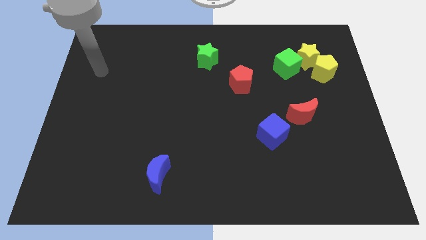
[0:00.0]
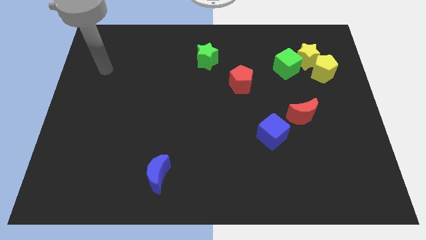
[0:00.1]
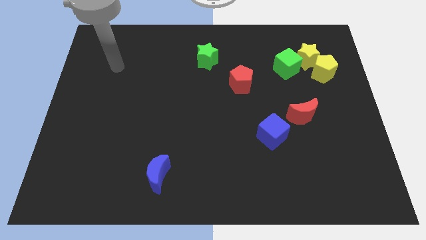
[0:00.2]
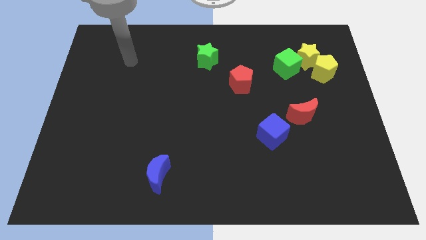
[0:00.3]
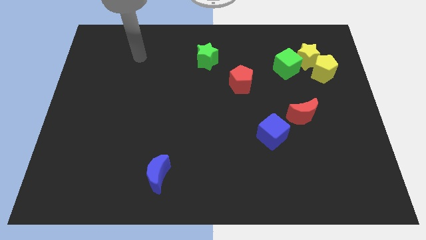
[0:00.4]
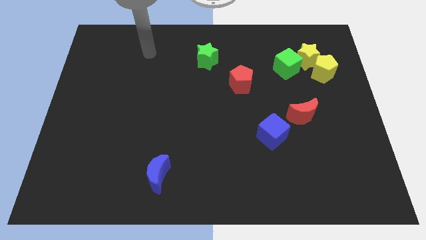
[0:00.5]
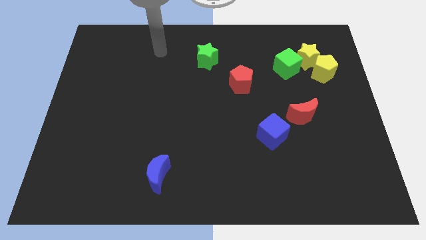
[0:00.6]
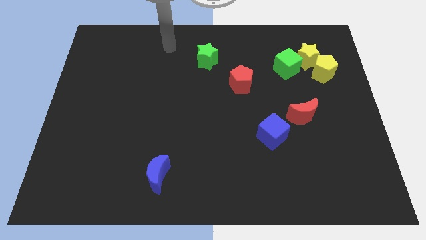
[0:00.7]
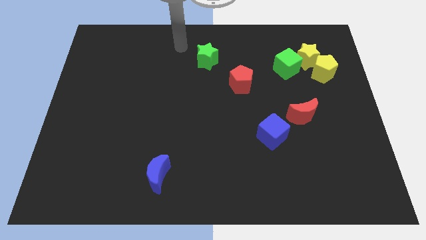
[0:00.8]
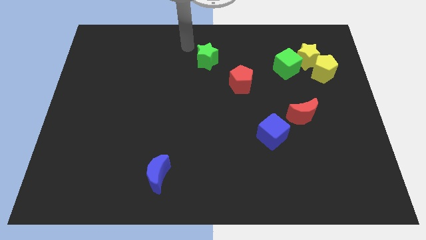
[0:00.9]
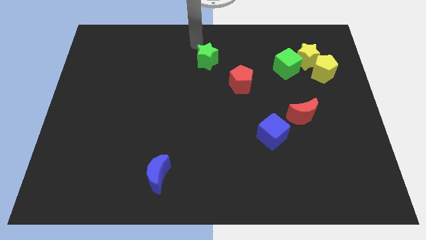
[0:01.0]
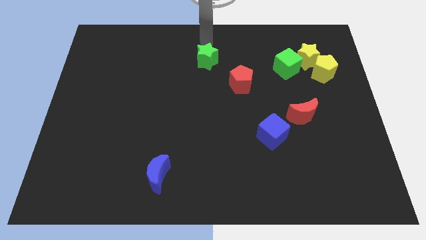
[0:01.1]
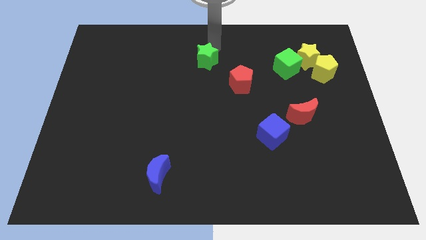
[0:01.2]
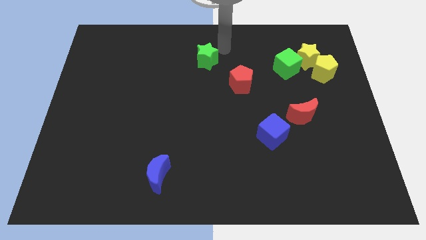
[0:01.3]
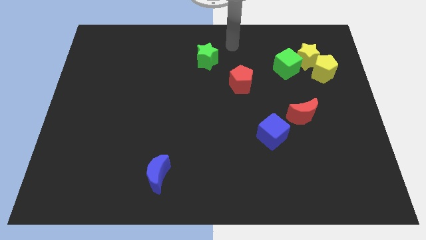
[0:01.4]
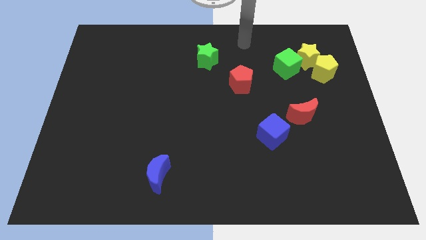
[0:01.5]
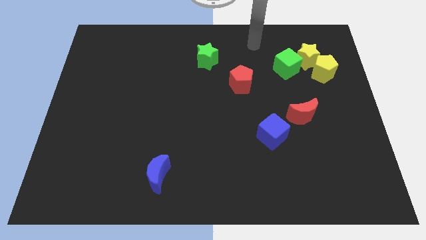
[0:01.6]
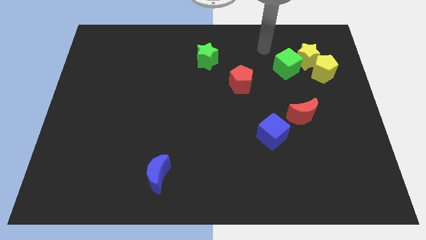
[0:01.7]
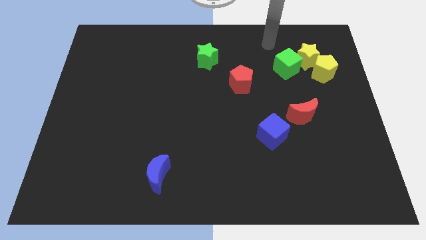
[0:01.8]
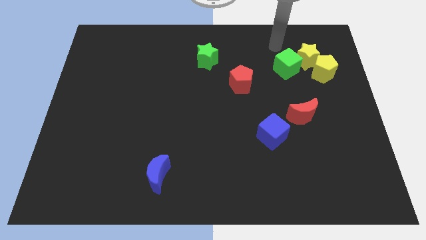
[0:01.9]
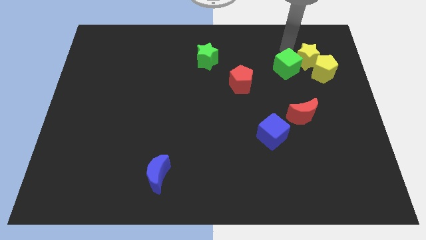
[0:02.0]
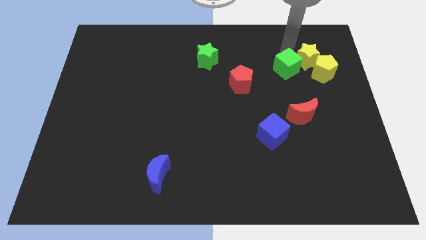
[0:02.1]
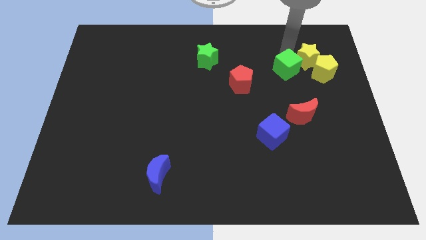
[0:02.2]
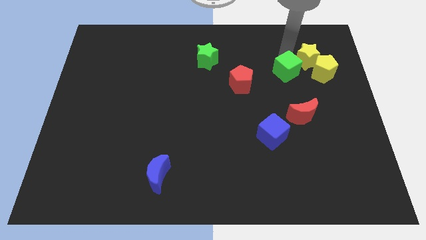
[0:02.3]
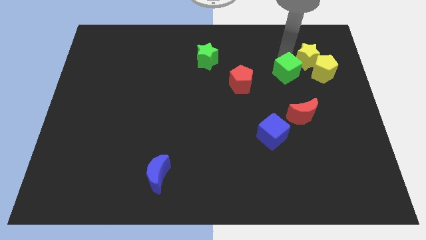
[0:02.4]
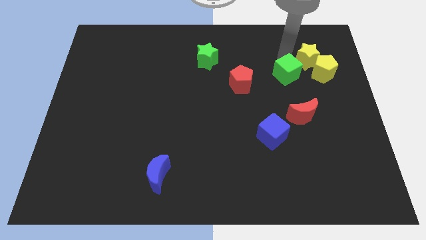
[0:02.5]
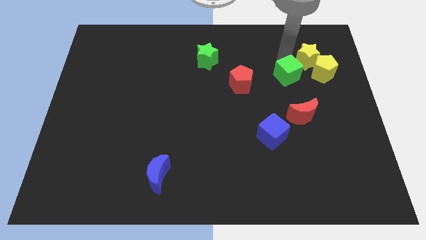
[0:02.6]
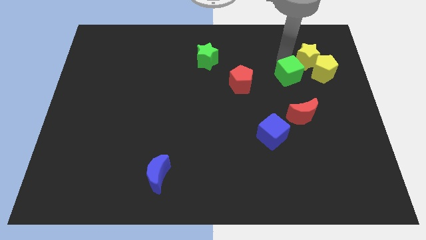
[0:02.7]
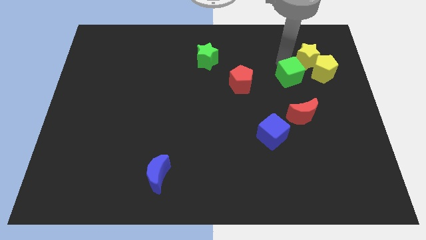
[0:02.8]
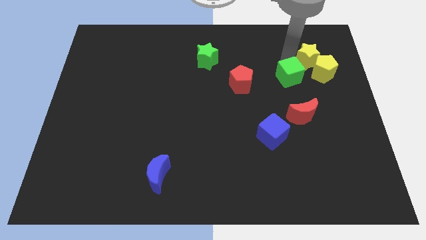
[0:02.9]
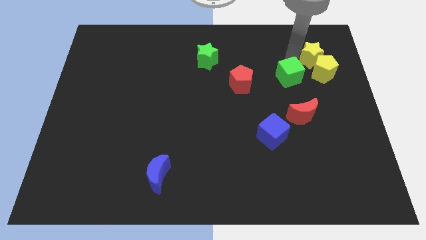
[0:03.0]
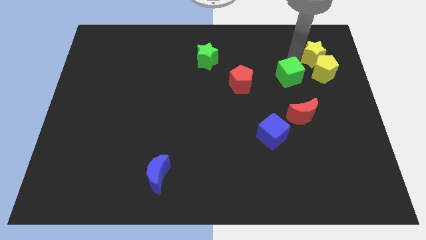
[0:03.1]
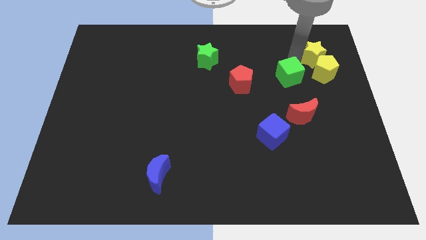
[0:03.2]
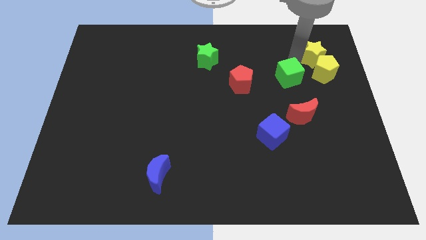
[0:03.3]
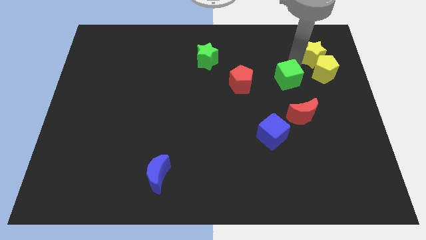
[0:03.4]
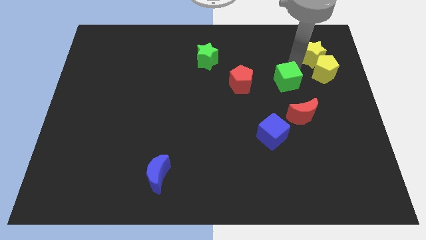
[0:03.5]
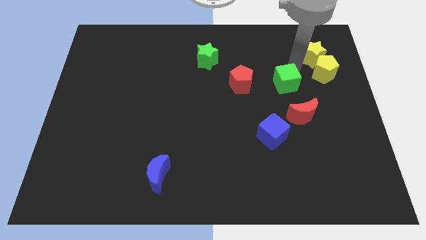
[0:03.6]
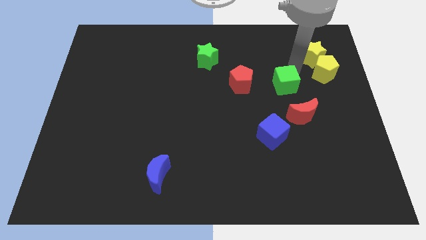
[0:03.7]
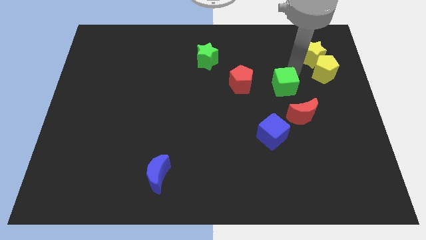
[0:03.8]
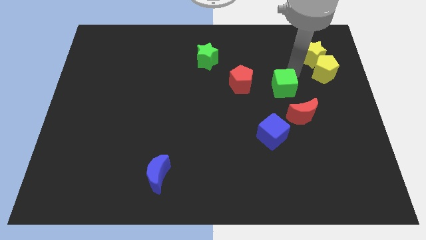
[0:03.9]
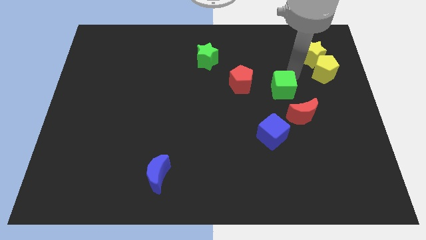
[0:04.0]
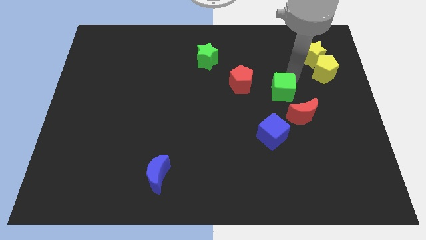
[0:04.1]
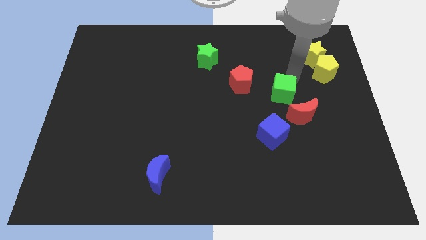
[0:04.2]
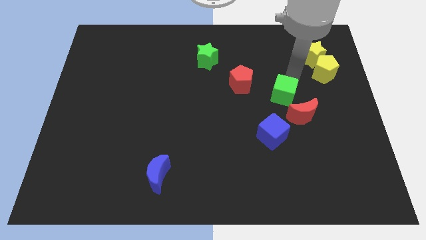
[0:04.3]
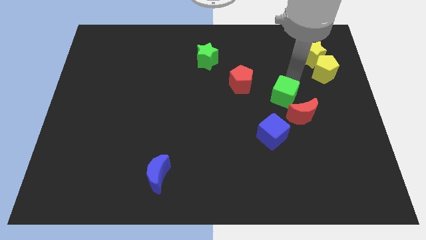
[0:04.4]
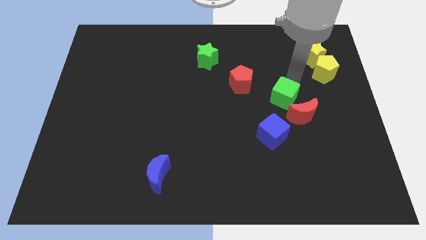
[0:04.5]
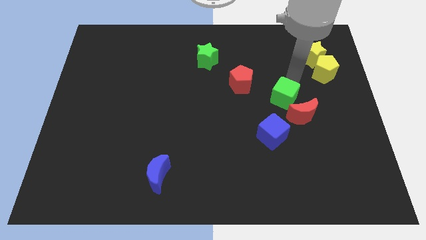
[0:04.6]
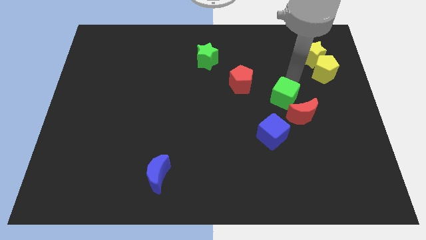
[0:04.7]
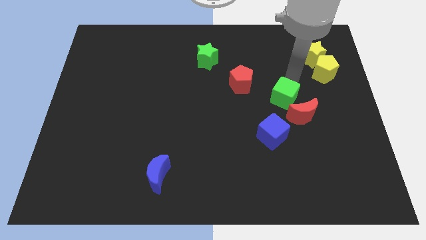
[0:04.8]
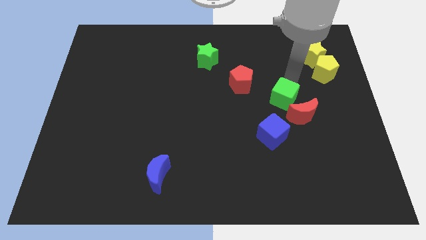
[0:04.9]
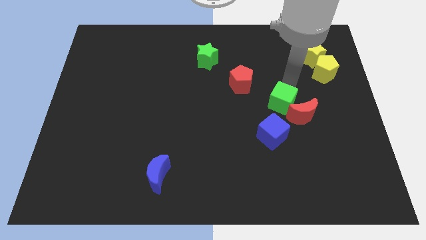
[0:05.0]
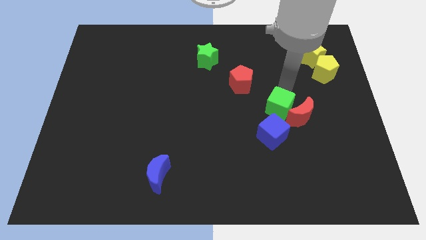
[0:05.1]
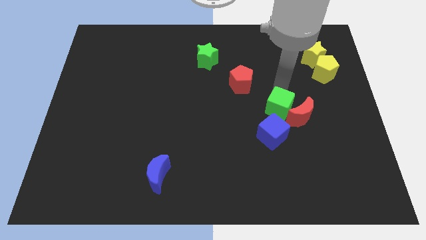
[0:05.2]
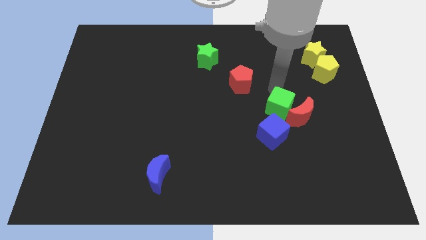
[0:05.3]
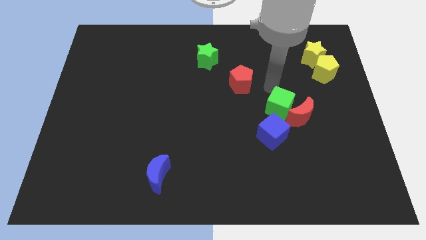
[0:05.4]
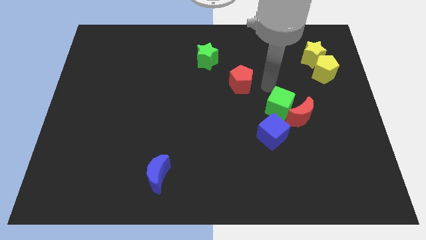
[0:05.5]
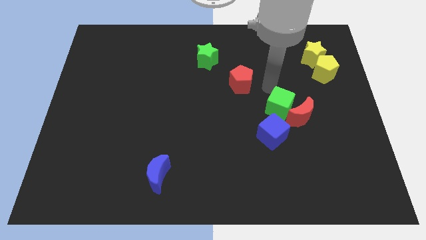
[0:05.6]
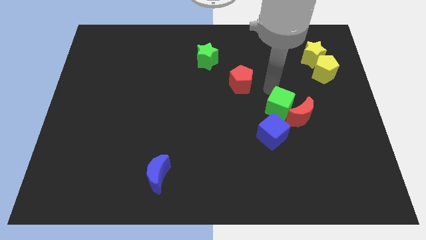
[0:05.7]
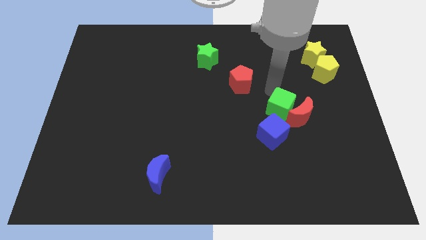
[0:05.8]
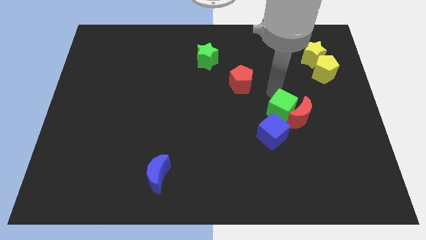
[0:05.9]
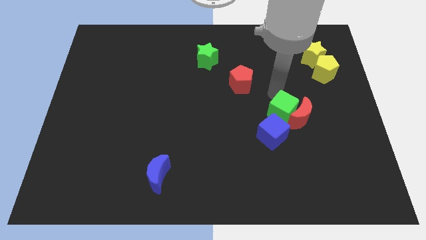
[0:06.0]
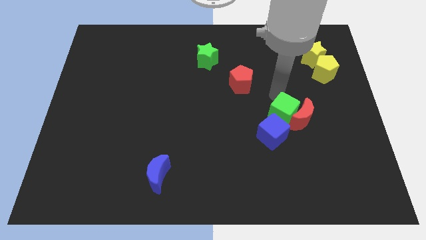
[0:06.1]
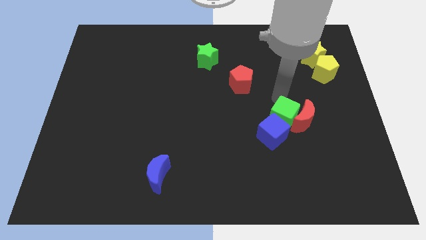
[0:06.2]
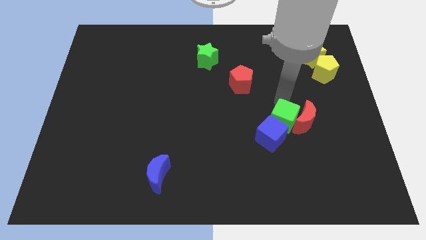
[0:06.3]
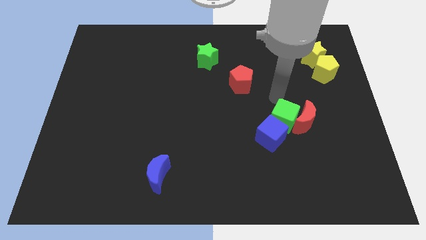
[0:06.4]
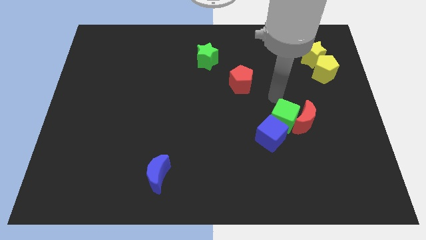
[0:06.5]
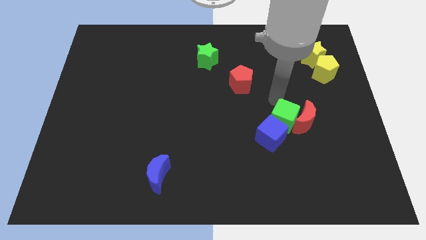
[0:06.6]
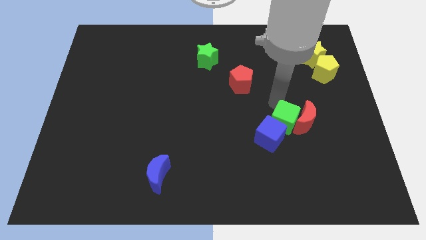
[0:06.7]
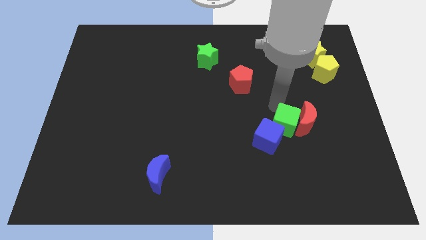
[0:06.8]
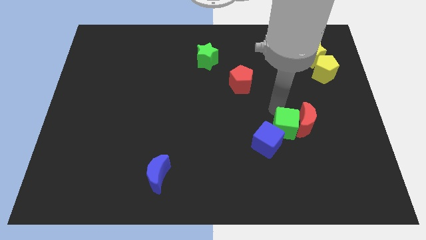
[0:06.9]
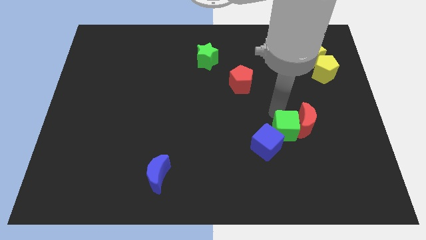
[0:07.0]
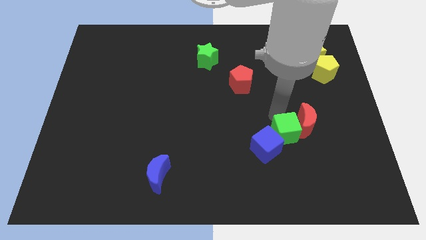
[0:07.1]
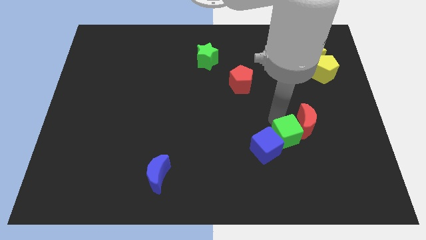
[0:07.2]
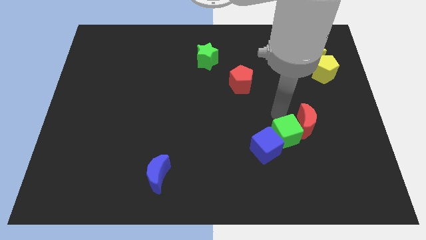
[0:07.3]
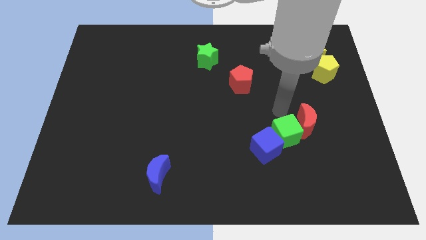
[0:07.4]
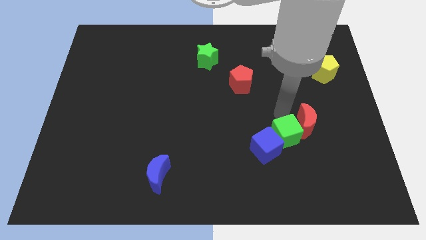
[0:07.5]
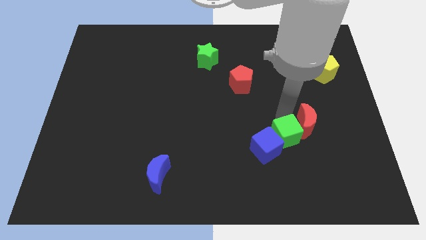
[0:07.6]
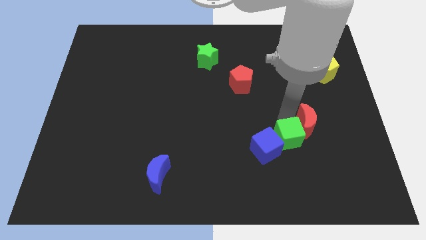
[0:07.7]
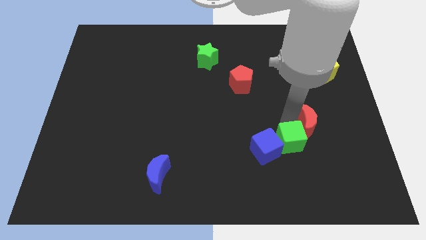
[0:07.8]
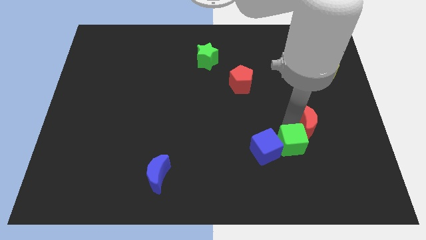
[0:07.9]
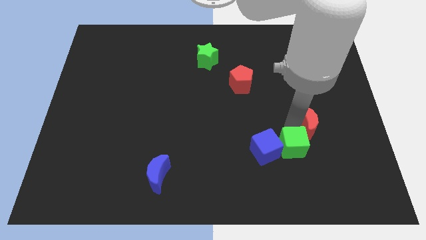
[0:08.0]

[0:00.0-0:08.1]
put the green cube to the bottom right side of the blue cube

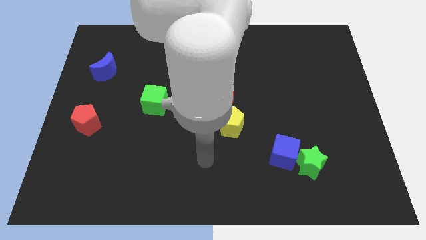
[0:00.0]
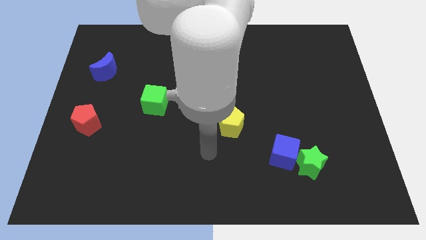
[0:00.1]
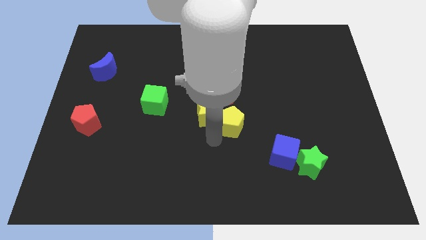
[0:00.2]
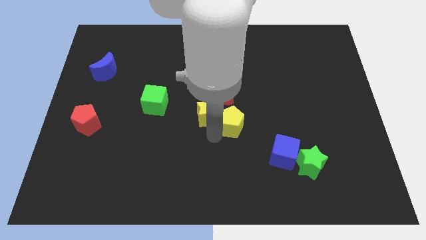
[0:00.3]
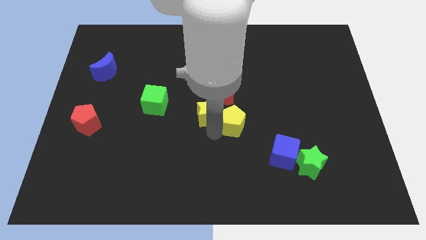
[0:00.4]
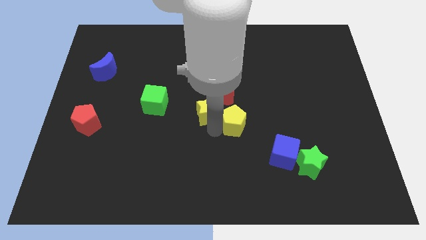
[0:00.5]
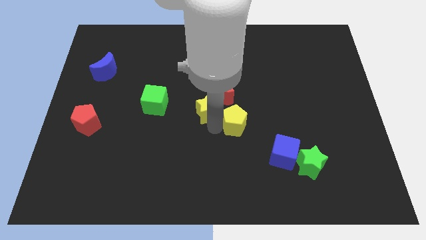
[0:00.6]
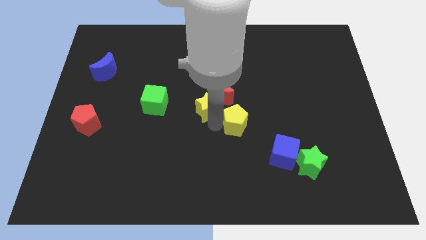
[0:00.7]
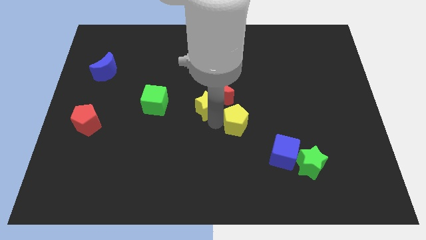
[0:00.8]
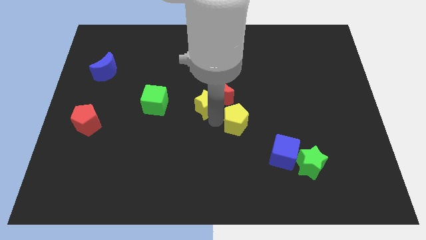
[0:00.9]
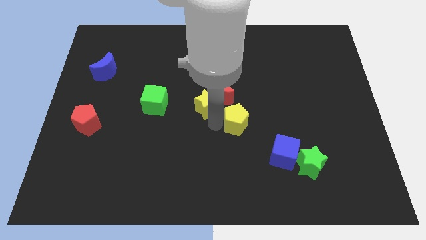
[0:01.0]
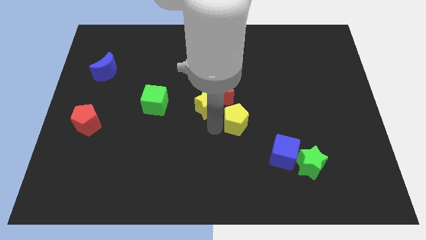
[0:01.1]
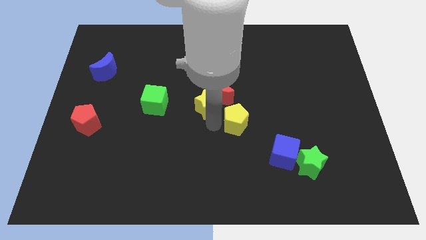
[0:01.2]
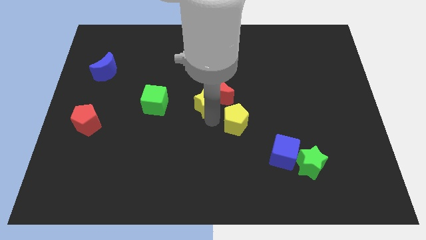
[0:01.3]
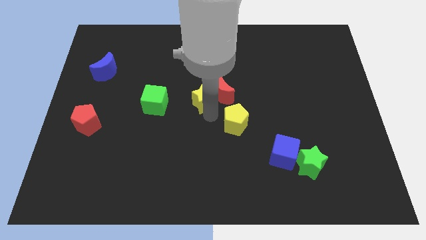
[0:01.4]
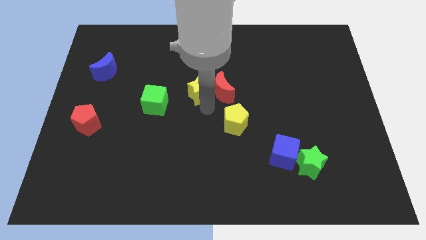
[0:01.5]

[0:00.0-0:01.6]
push the yellow star to the top left side of the red moon
